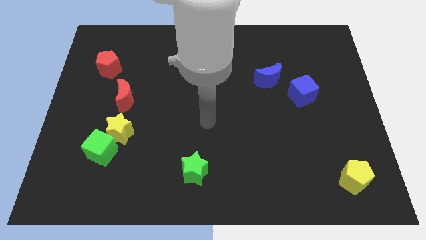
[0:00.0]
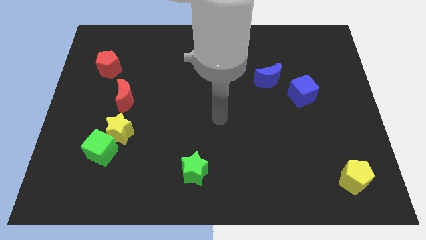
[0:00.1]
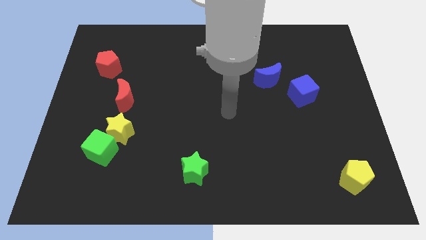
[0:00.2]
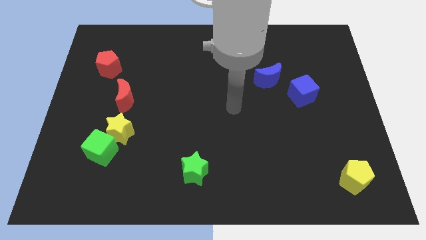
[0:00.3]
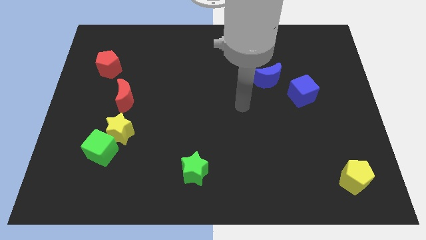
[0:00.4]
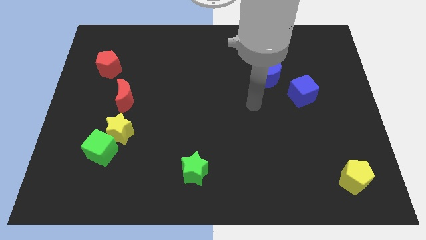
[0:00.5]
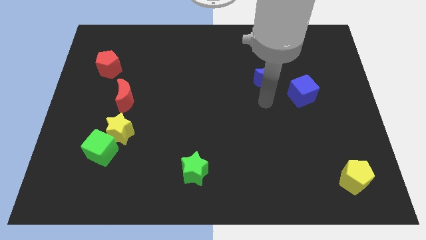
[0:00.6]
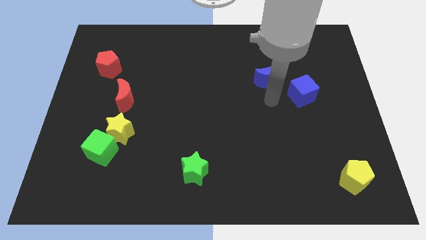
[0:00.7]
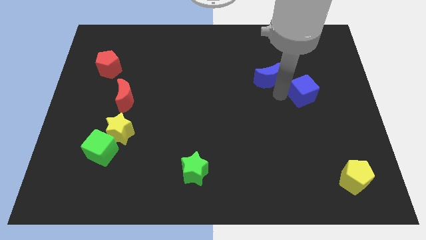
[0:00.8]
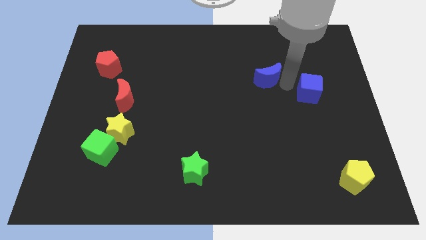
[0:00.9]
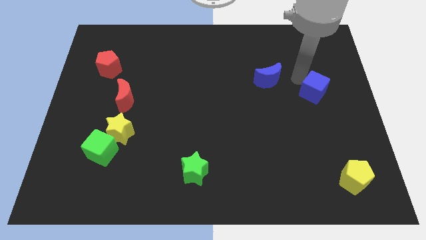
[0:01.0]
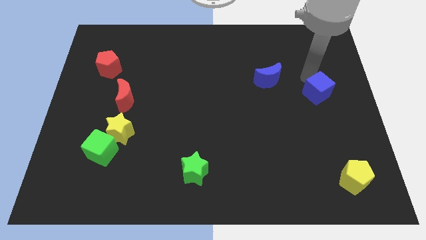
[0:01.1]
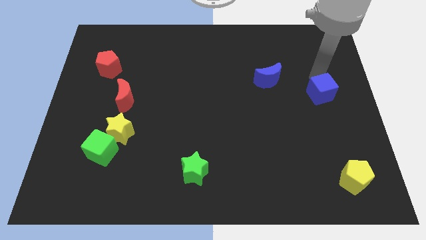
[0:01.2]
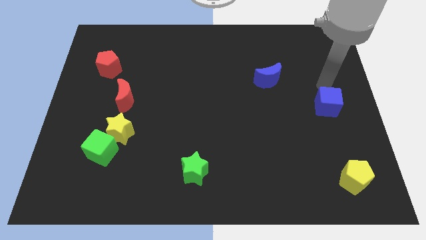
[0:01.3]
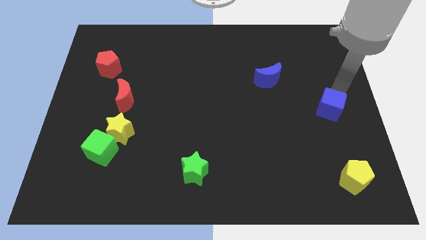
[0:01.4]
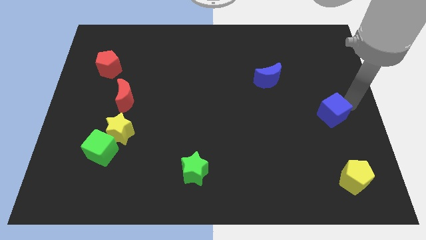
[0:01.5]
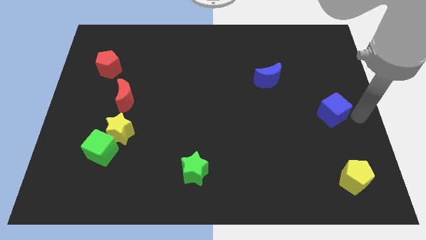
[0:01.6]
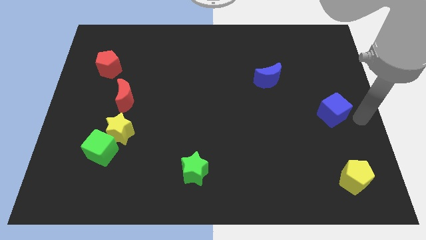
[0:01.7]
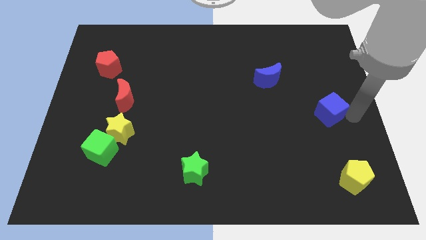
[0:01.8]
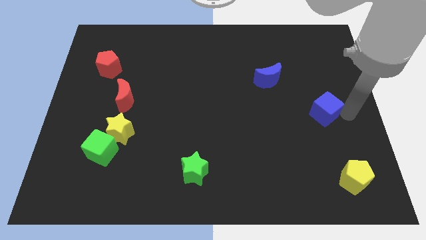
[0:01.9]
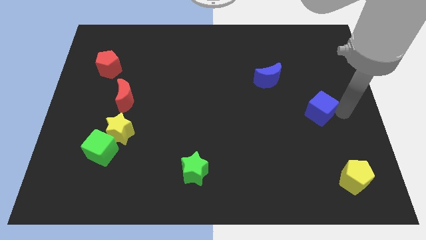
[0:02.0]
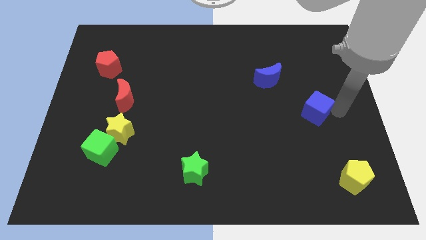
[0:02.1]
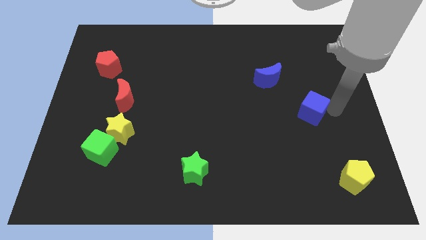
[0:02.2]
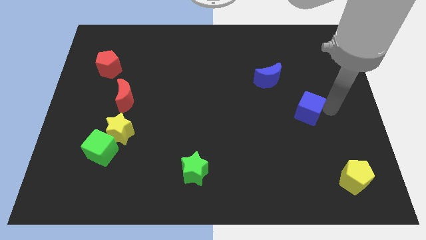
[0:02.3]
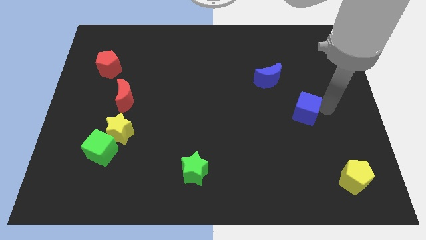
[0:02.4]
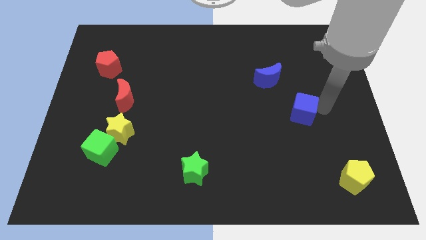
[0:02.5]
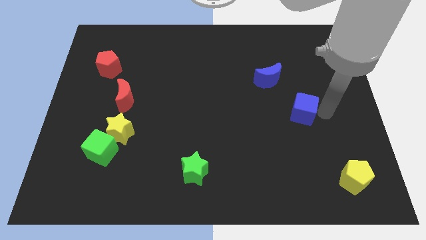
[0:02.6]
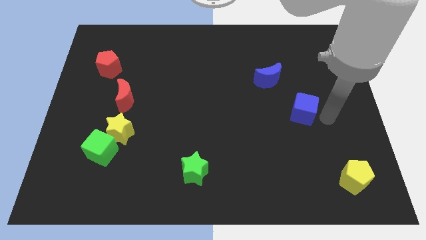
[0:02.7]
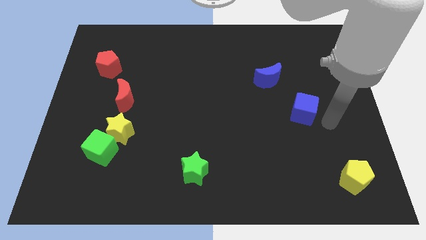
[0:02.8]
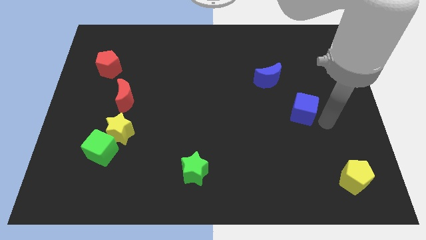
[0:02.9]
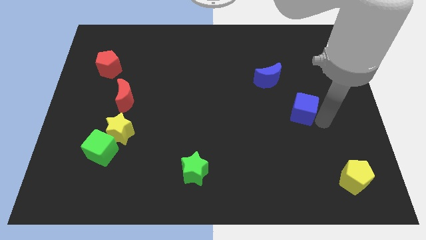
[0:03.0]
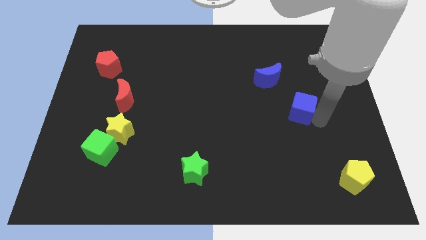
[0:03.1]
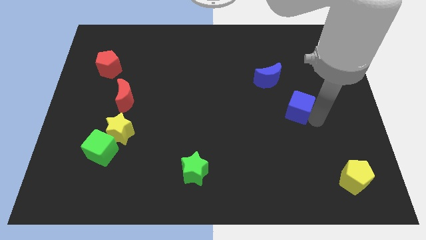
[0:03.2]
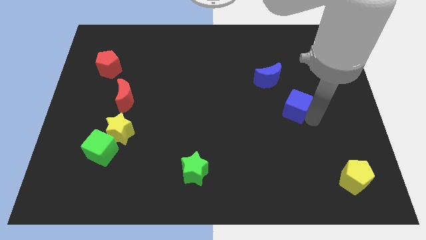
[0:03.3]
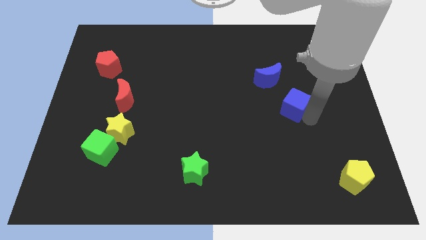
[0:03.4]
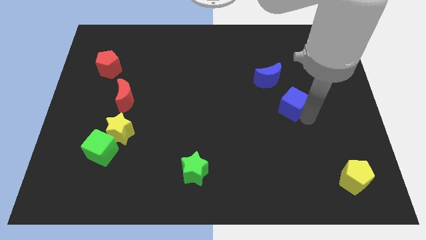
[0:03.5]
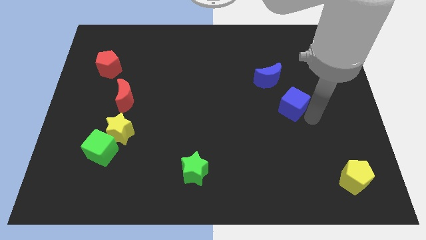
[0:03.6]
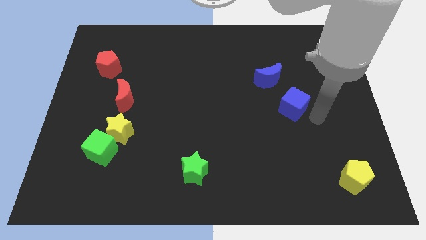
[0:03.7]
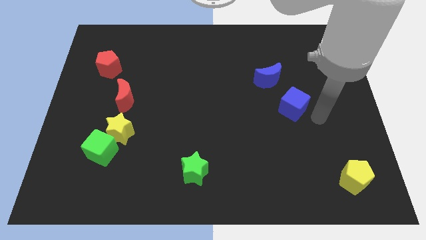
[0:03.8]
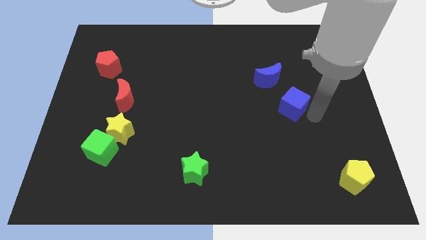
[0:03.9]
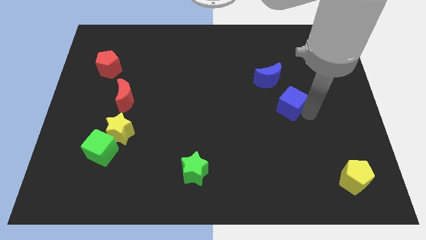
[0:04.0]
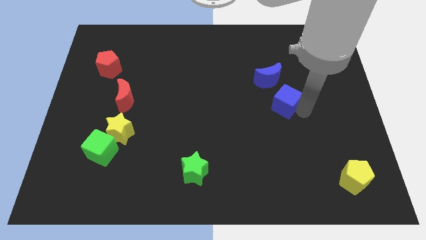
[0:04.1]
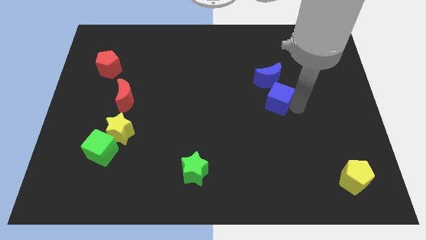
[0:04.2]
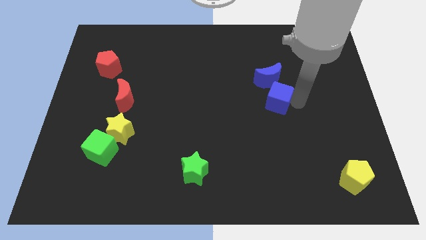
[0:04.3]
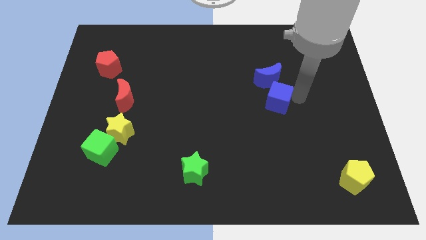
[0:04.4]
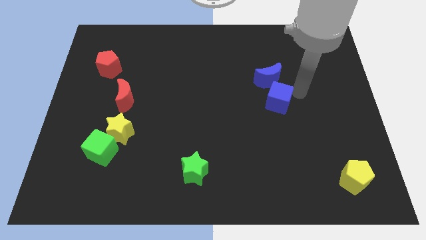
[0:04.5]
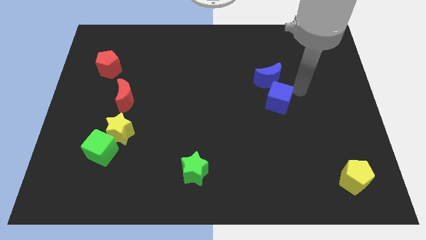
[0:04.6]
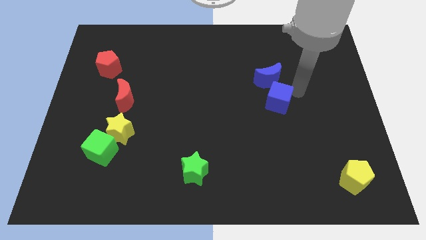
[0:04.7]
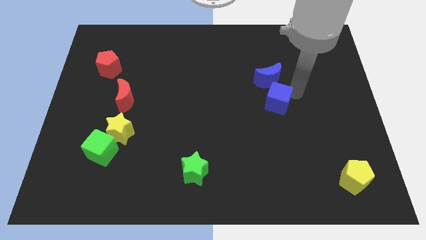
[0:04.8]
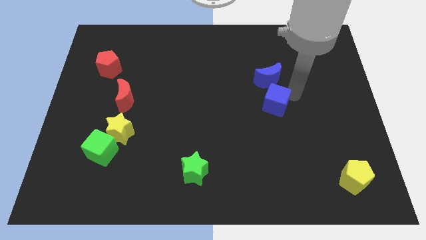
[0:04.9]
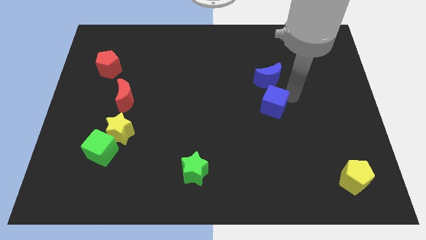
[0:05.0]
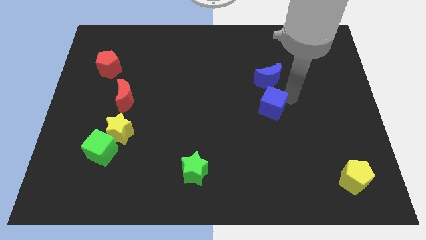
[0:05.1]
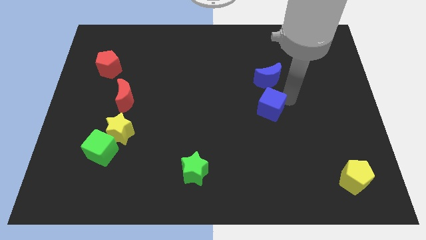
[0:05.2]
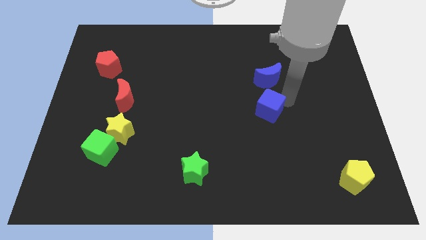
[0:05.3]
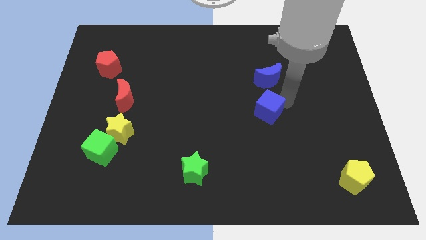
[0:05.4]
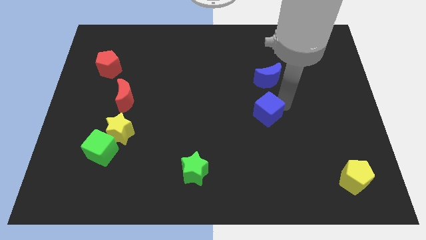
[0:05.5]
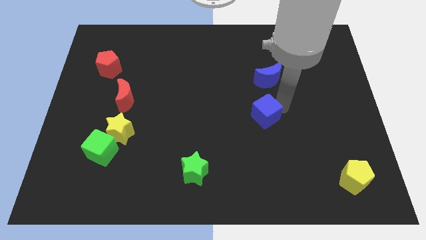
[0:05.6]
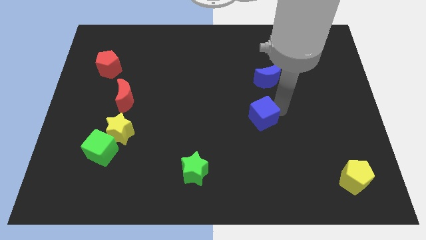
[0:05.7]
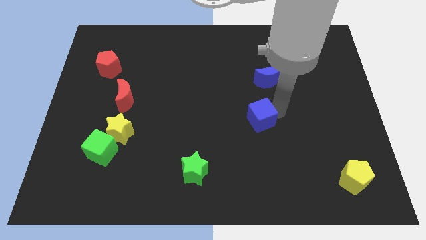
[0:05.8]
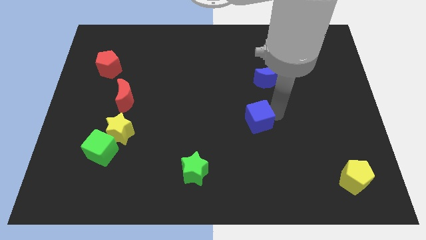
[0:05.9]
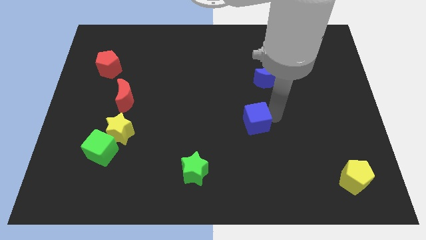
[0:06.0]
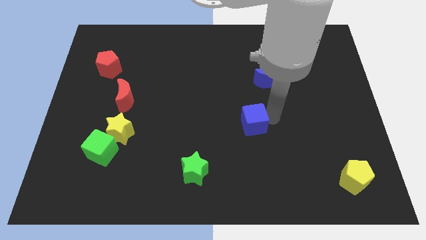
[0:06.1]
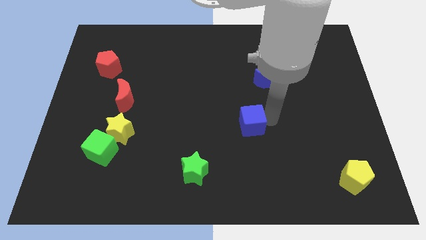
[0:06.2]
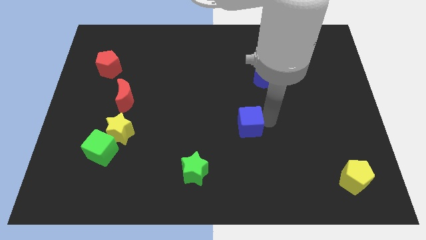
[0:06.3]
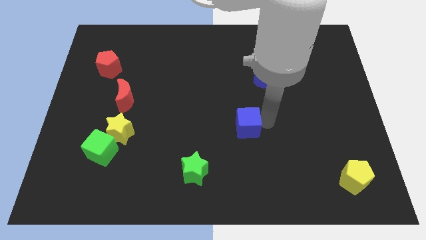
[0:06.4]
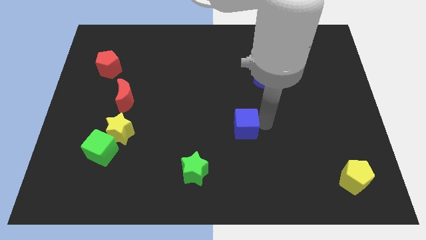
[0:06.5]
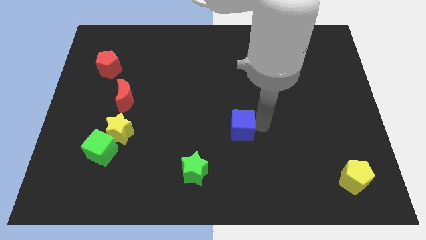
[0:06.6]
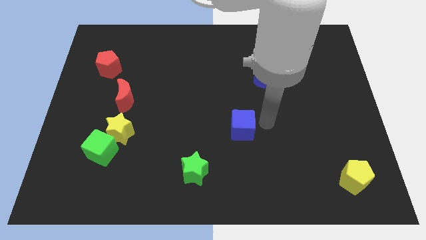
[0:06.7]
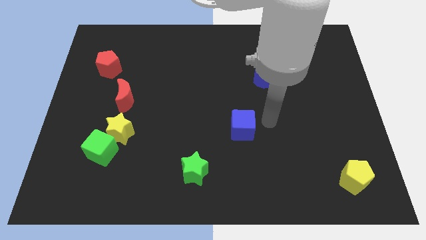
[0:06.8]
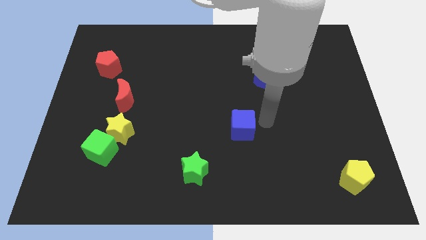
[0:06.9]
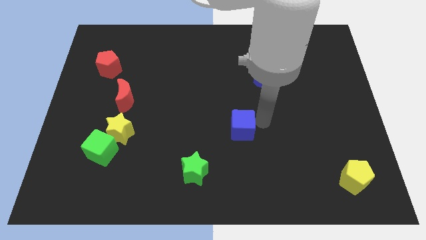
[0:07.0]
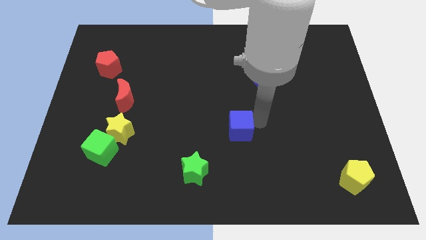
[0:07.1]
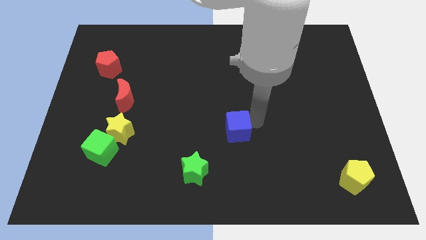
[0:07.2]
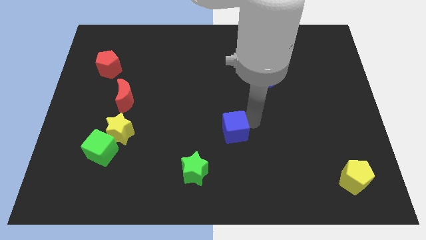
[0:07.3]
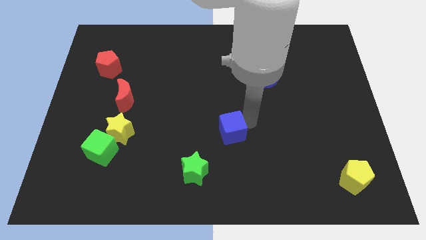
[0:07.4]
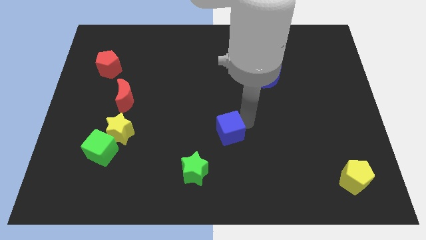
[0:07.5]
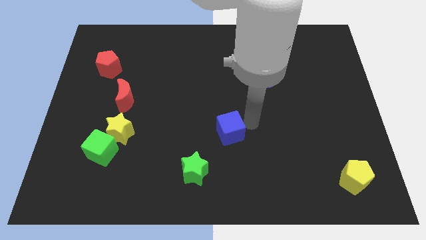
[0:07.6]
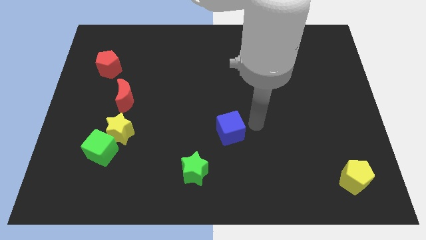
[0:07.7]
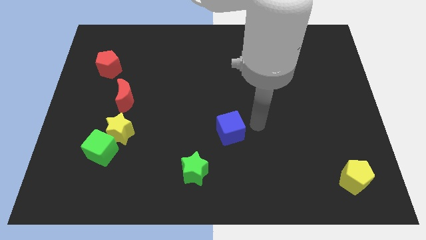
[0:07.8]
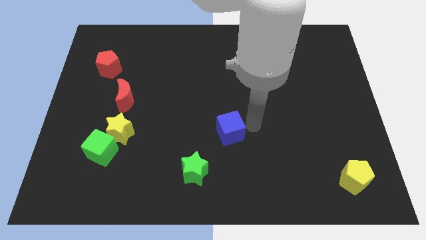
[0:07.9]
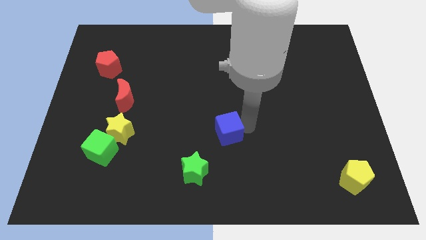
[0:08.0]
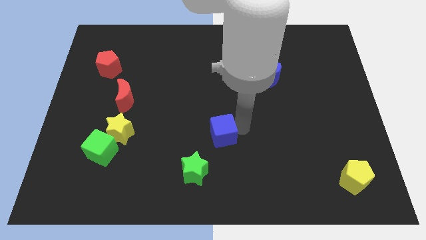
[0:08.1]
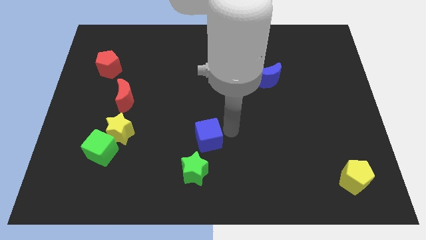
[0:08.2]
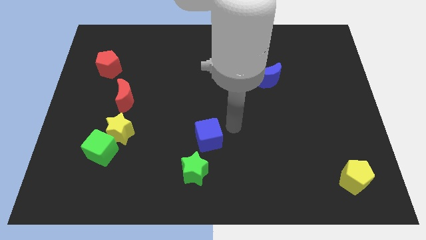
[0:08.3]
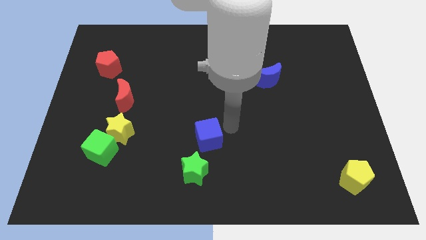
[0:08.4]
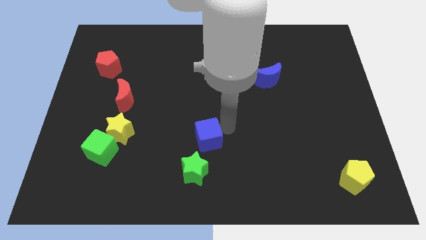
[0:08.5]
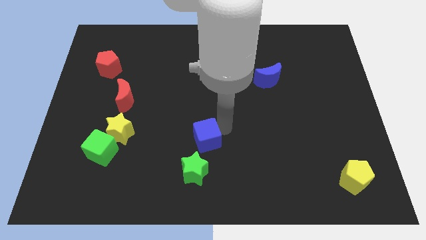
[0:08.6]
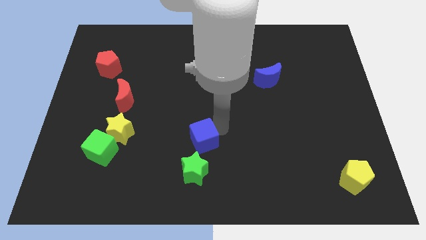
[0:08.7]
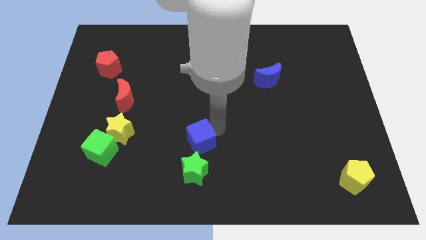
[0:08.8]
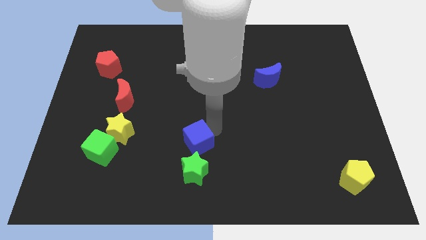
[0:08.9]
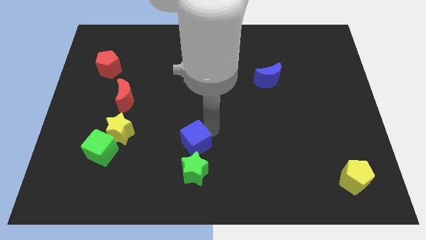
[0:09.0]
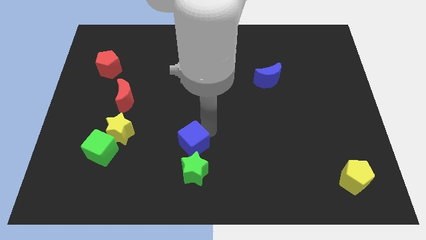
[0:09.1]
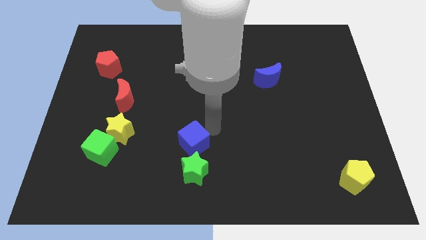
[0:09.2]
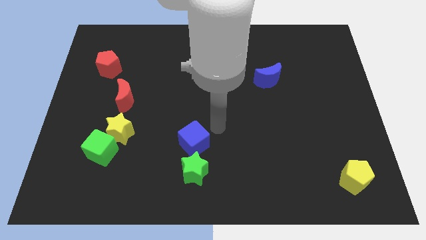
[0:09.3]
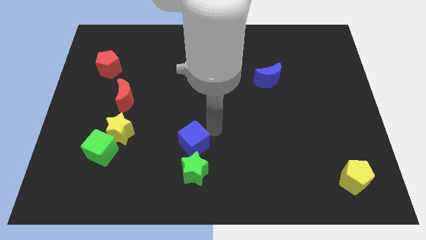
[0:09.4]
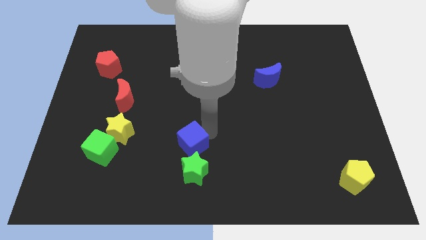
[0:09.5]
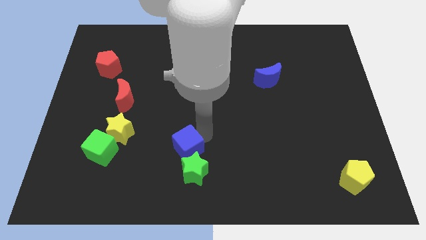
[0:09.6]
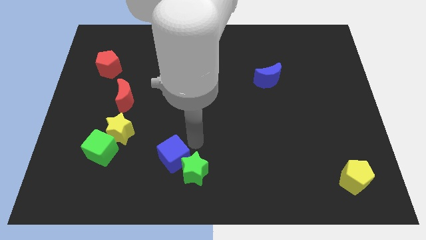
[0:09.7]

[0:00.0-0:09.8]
push the blue cube just left of the green star
